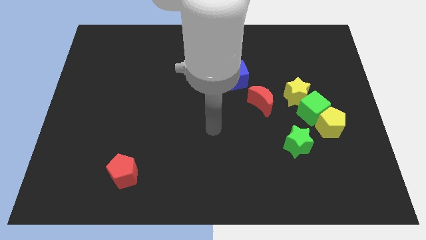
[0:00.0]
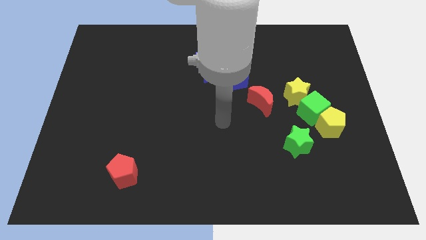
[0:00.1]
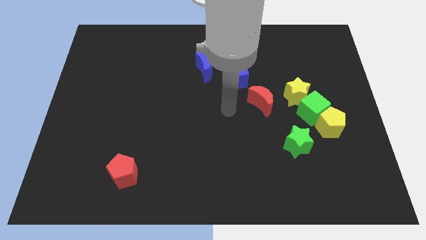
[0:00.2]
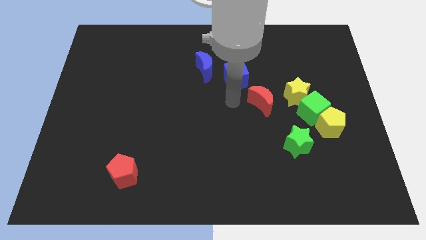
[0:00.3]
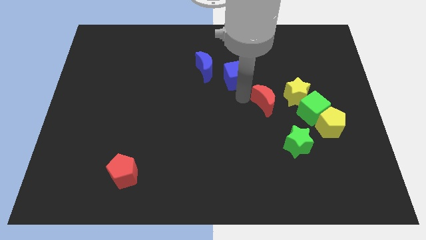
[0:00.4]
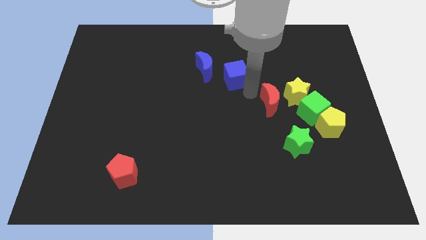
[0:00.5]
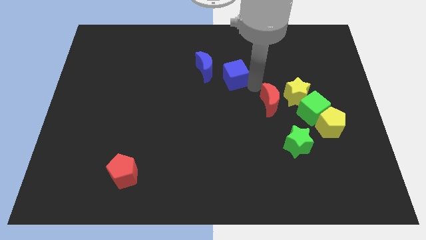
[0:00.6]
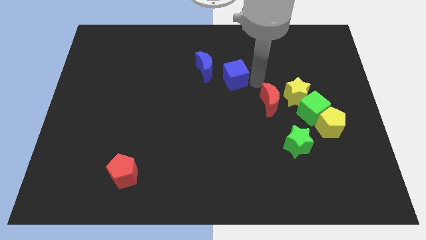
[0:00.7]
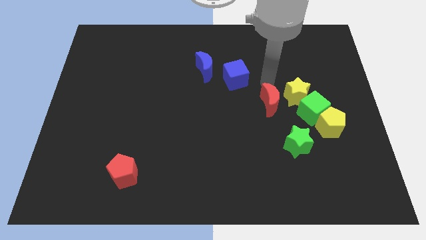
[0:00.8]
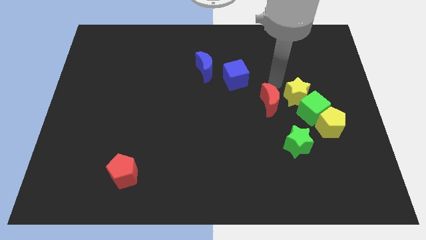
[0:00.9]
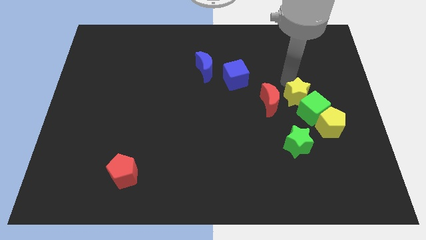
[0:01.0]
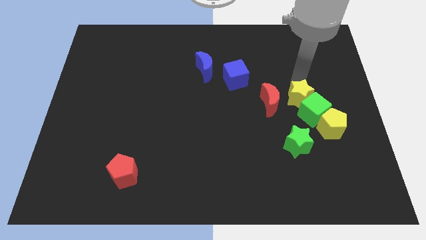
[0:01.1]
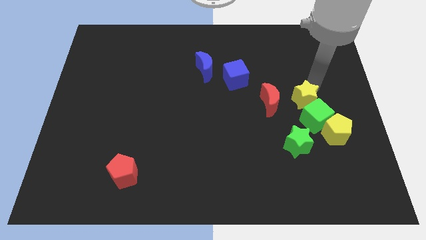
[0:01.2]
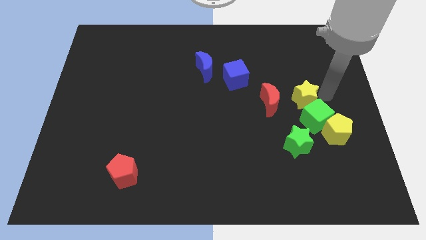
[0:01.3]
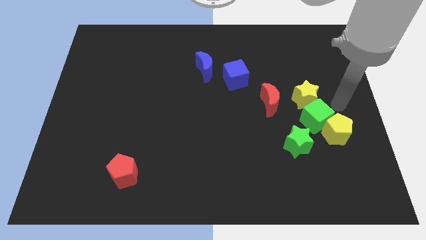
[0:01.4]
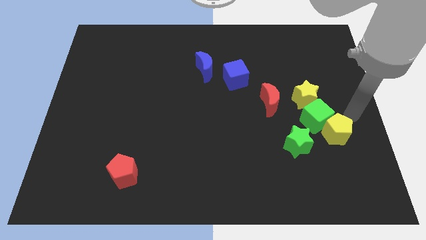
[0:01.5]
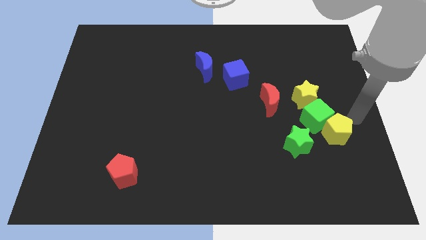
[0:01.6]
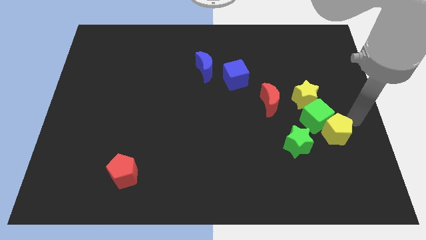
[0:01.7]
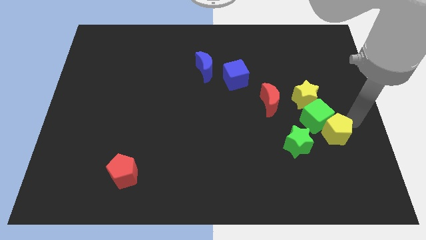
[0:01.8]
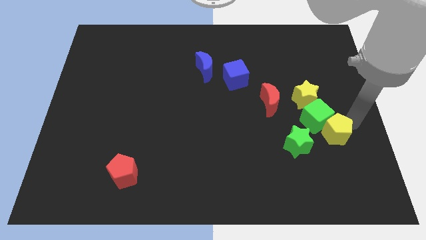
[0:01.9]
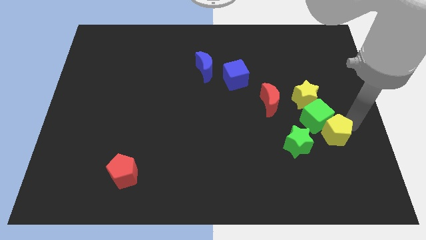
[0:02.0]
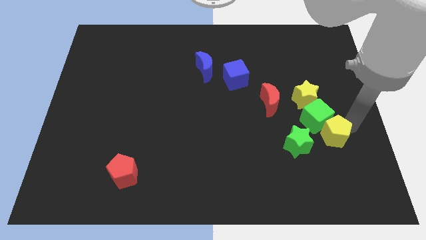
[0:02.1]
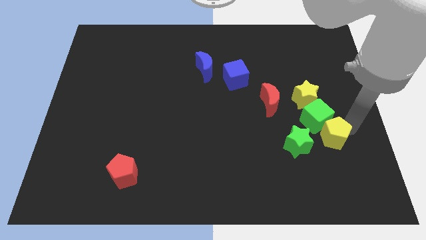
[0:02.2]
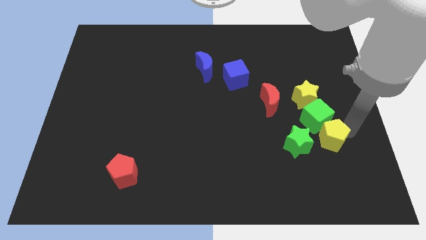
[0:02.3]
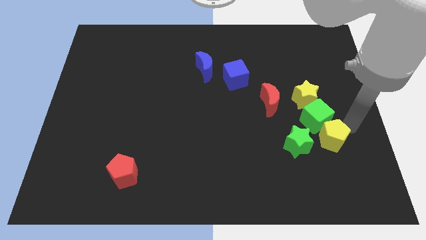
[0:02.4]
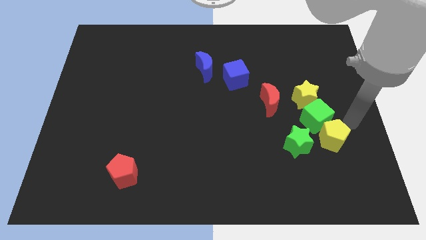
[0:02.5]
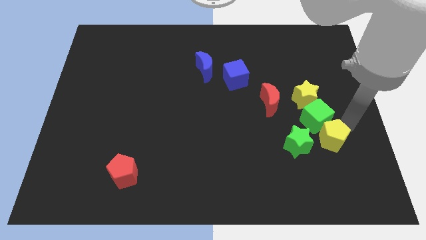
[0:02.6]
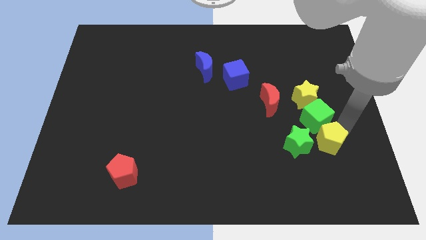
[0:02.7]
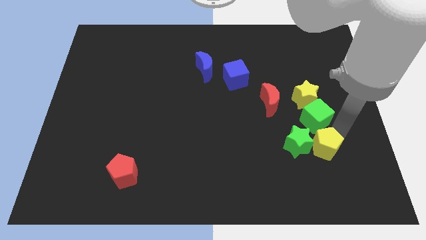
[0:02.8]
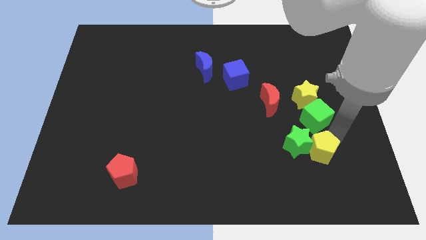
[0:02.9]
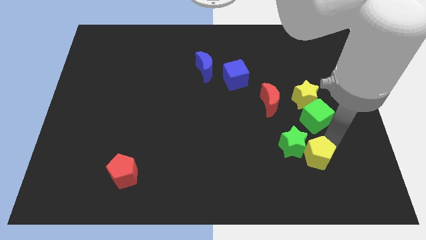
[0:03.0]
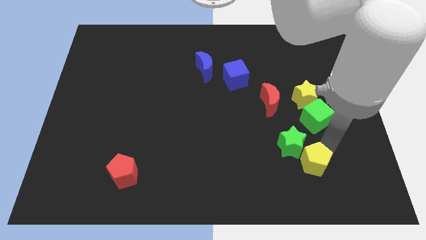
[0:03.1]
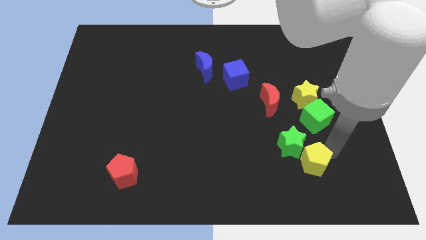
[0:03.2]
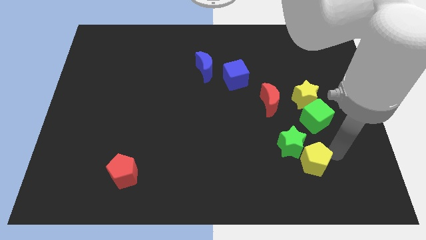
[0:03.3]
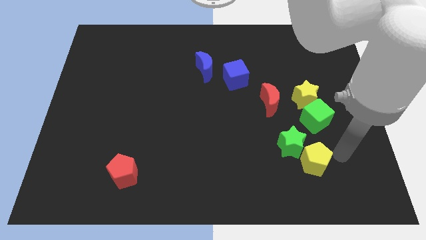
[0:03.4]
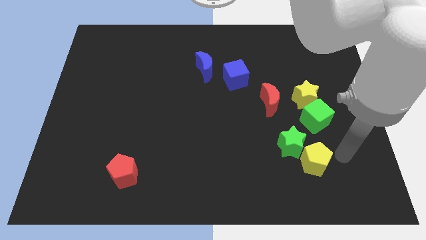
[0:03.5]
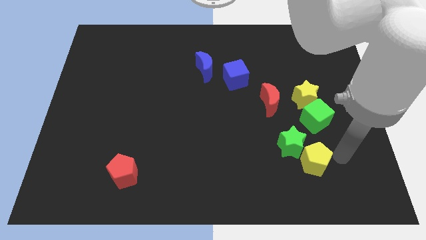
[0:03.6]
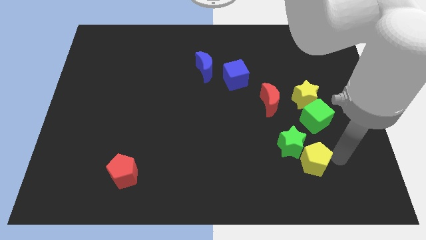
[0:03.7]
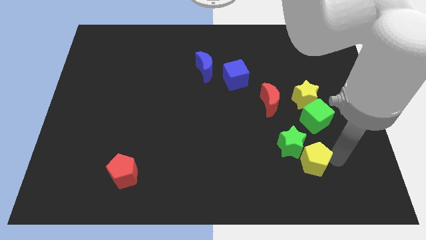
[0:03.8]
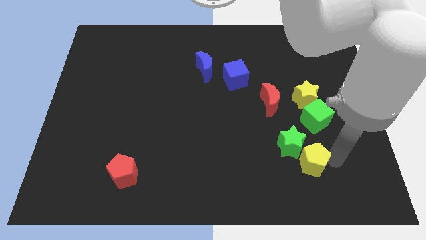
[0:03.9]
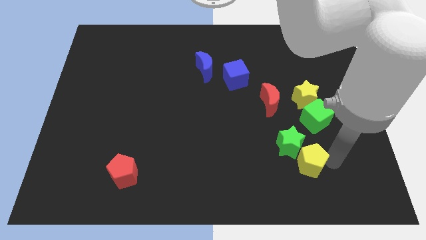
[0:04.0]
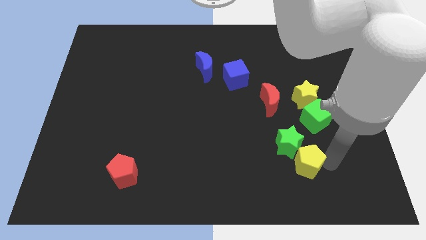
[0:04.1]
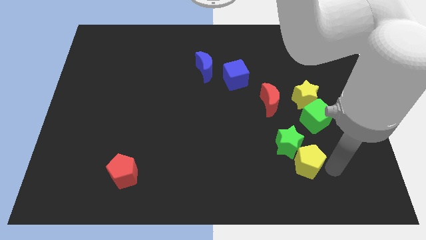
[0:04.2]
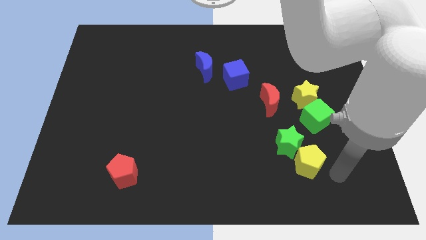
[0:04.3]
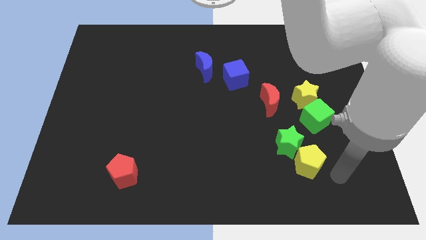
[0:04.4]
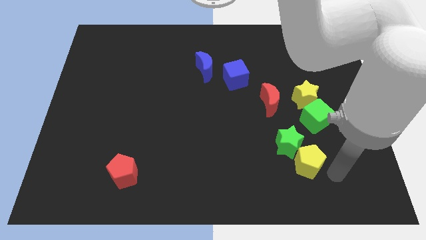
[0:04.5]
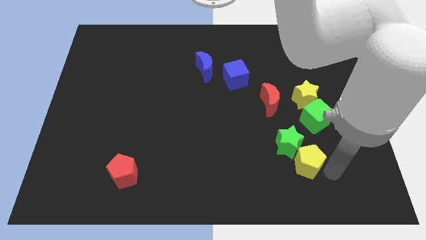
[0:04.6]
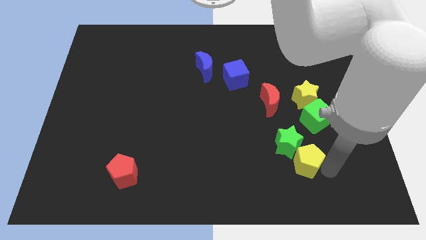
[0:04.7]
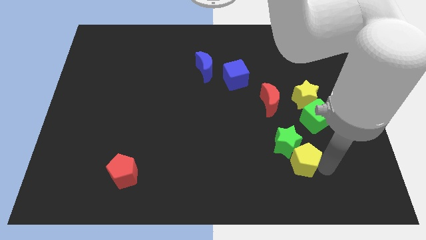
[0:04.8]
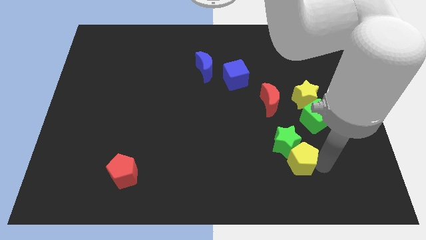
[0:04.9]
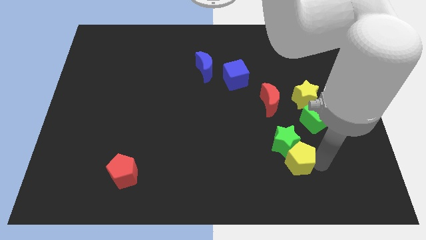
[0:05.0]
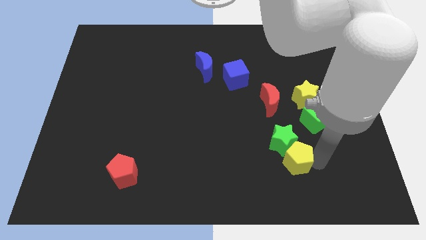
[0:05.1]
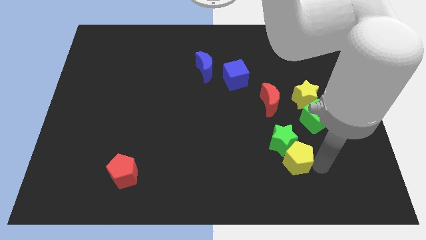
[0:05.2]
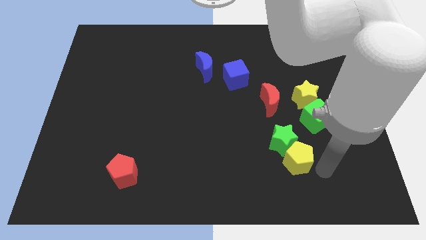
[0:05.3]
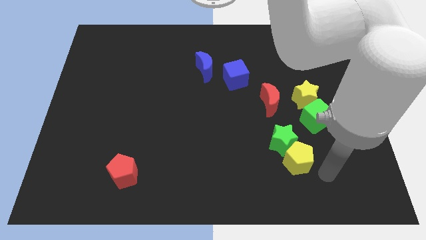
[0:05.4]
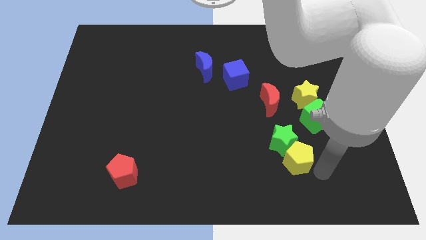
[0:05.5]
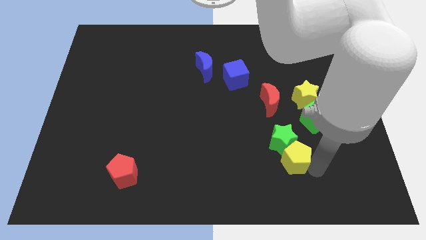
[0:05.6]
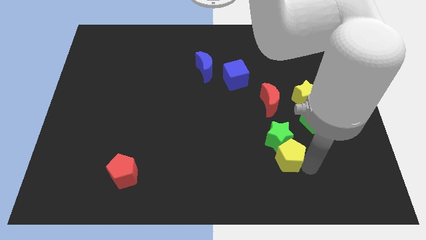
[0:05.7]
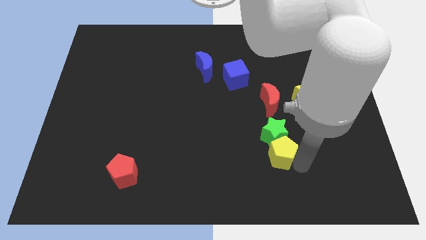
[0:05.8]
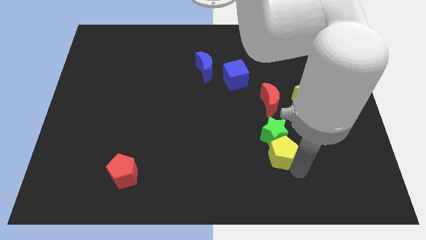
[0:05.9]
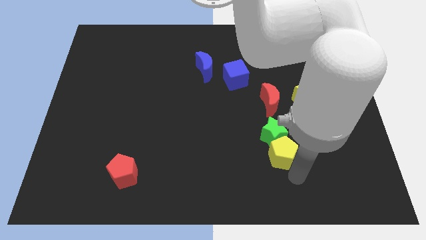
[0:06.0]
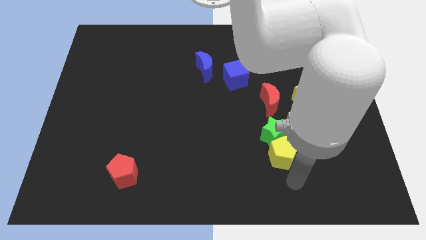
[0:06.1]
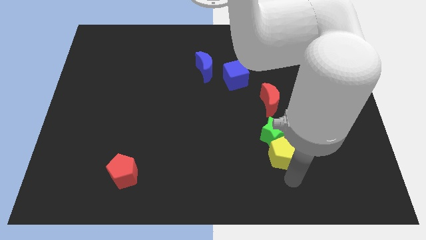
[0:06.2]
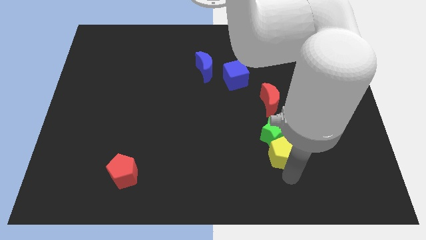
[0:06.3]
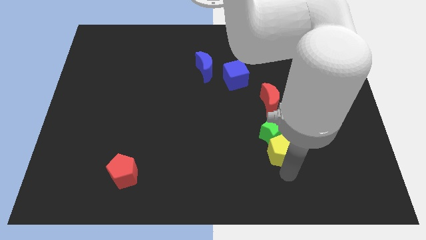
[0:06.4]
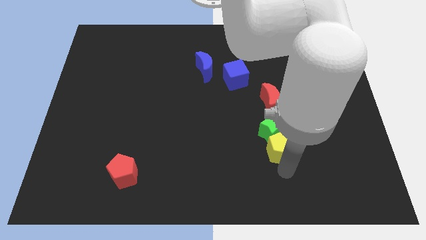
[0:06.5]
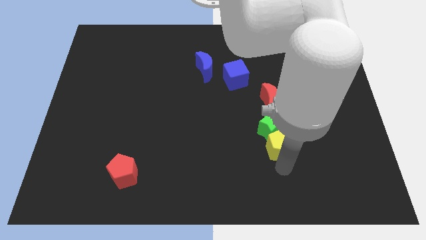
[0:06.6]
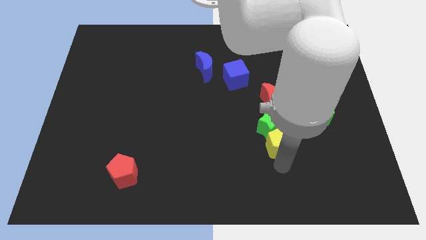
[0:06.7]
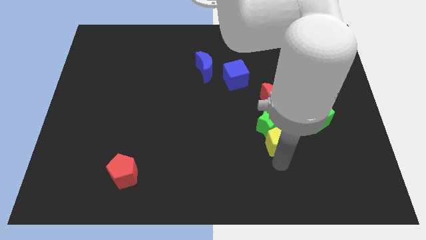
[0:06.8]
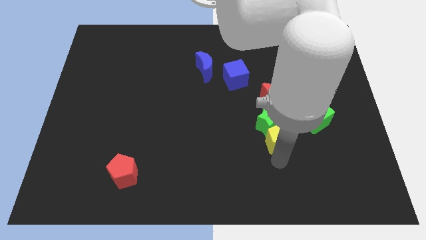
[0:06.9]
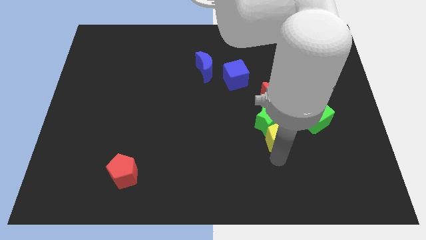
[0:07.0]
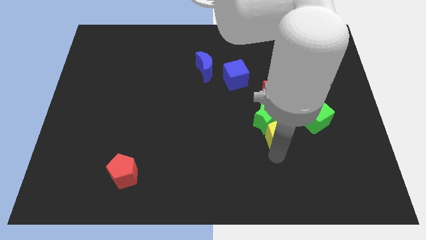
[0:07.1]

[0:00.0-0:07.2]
slide the yellow pentagon to the left side of the green cube

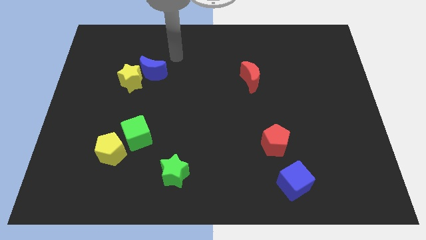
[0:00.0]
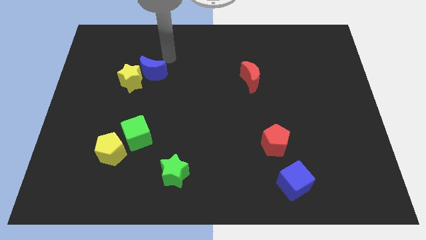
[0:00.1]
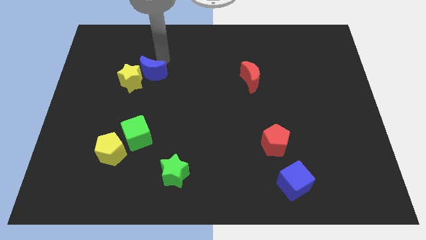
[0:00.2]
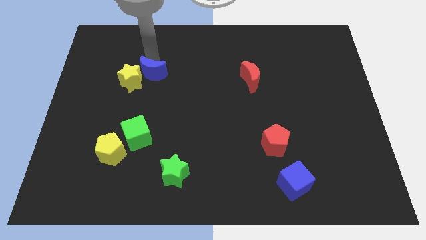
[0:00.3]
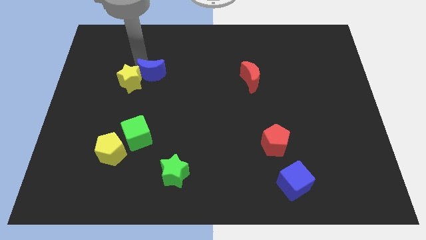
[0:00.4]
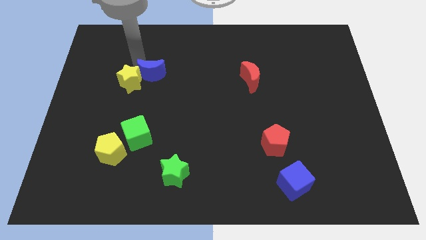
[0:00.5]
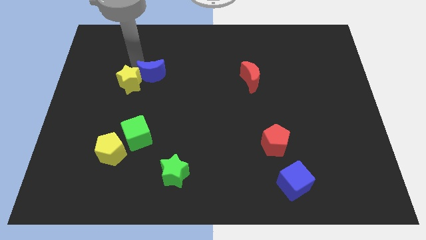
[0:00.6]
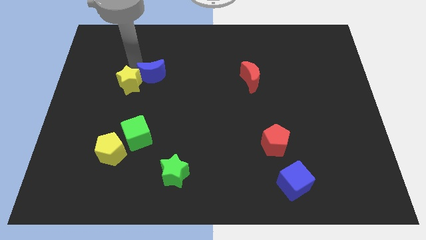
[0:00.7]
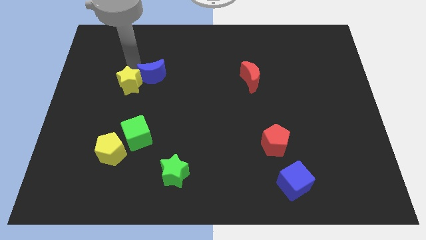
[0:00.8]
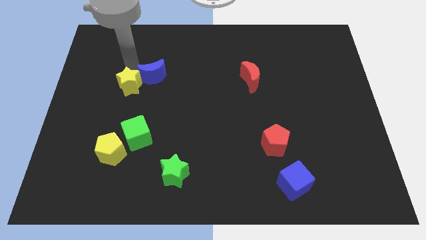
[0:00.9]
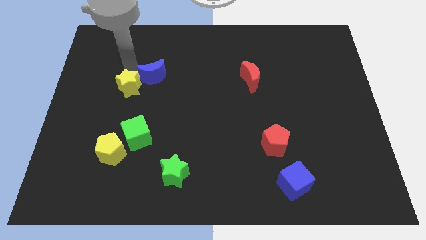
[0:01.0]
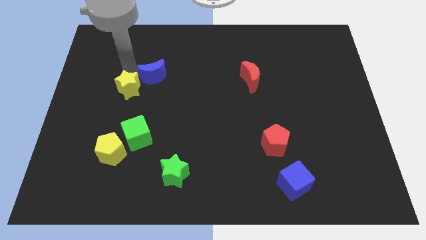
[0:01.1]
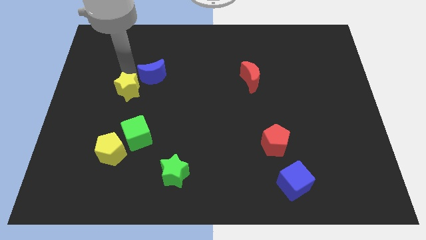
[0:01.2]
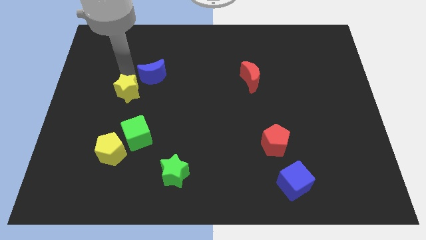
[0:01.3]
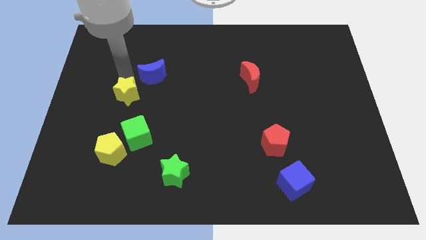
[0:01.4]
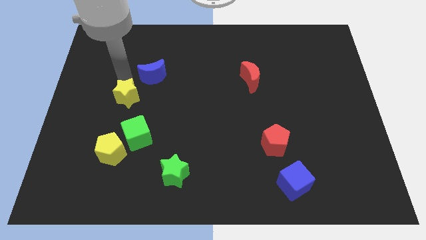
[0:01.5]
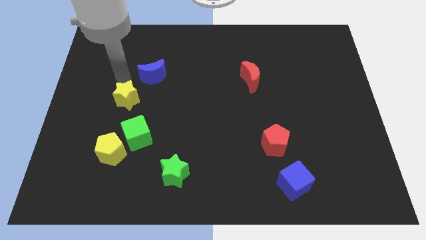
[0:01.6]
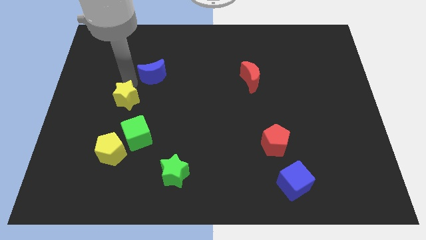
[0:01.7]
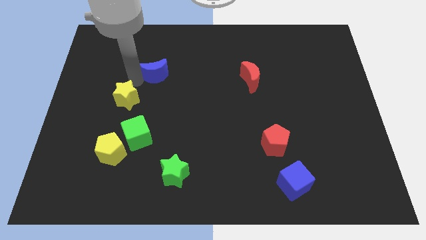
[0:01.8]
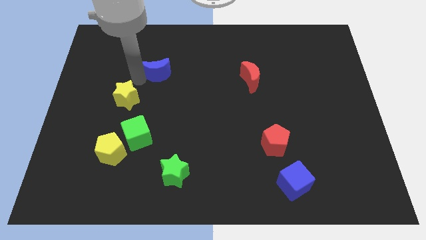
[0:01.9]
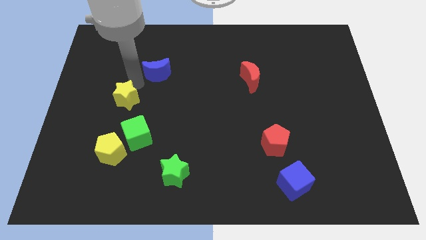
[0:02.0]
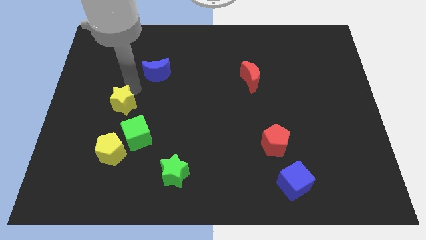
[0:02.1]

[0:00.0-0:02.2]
slide the yellow star to the top left side of the green cube
